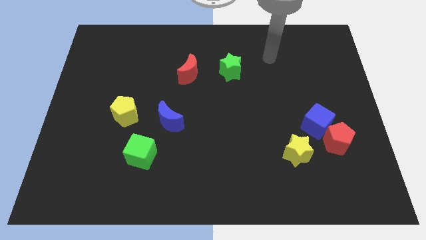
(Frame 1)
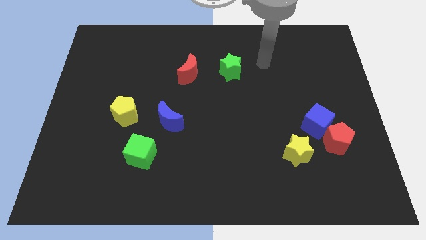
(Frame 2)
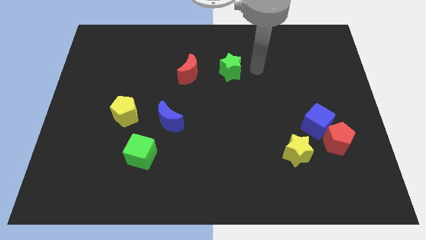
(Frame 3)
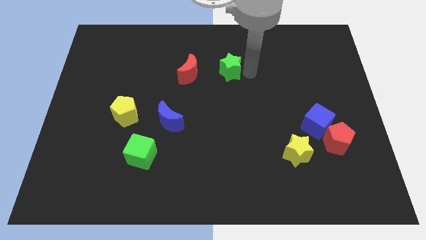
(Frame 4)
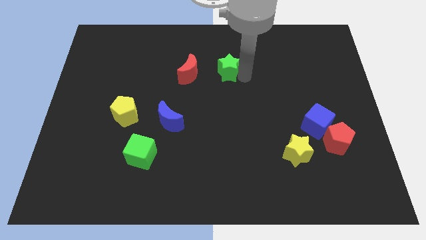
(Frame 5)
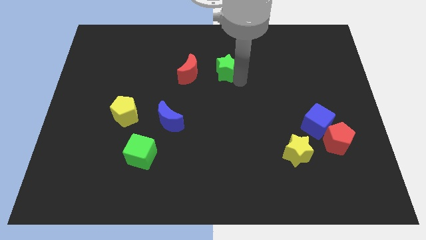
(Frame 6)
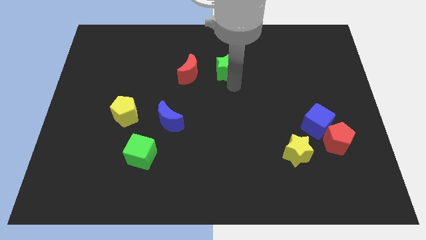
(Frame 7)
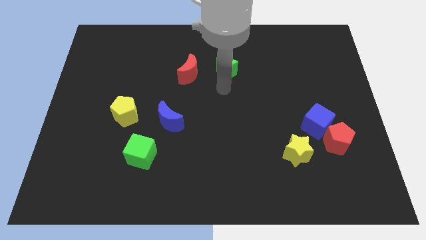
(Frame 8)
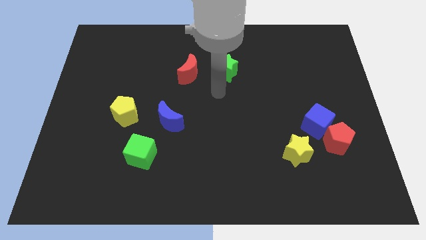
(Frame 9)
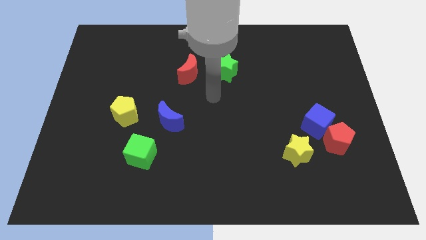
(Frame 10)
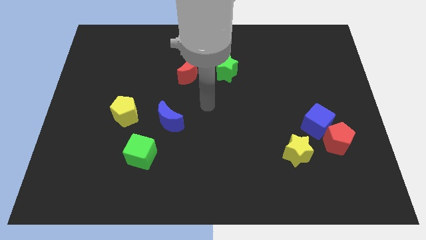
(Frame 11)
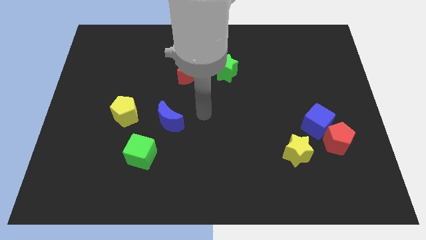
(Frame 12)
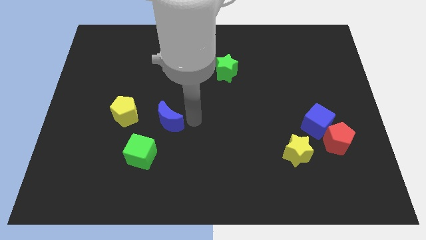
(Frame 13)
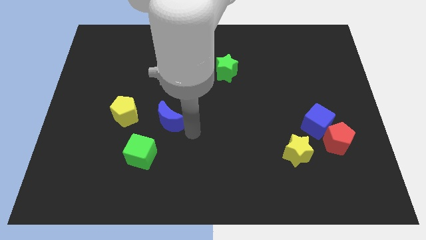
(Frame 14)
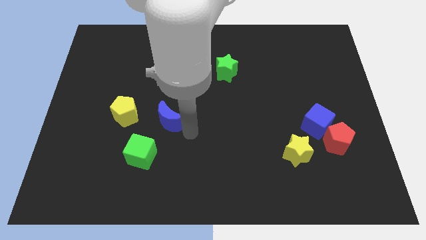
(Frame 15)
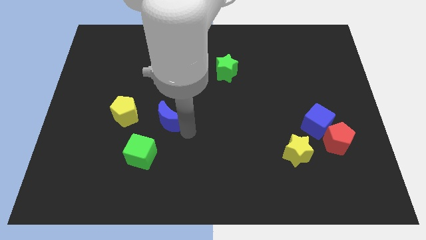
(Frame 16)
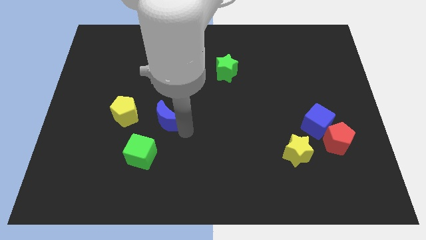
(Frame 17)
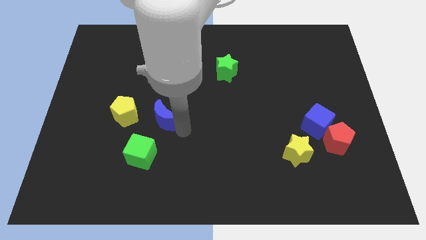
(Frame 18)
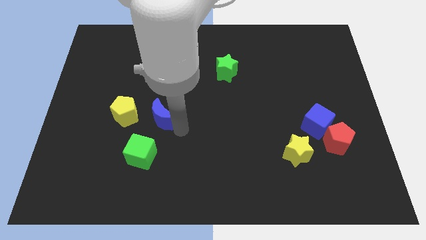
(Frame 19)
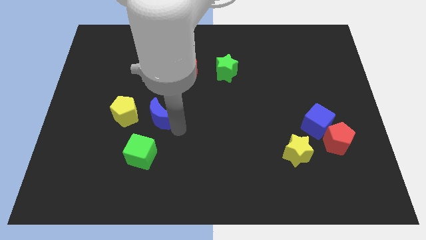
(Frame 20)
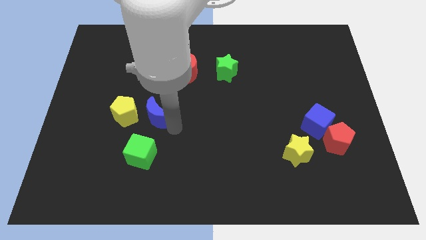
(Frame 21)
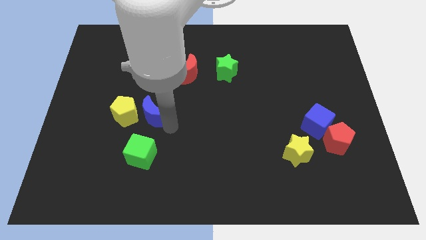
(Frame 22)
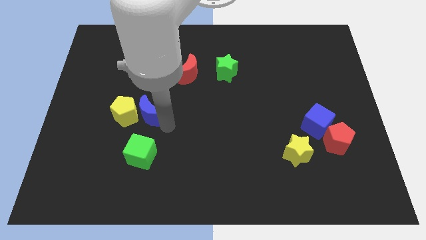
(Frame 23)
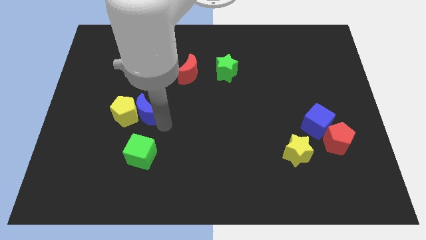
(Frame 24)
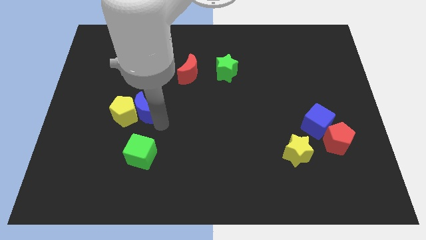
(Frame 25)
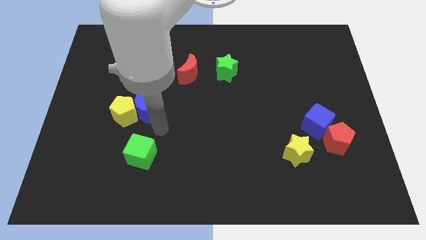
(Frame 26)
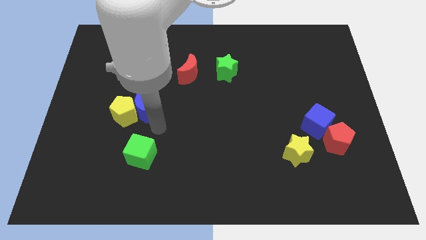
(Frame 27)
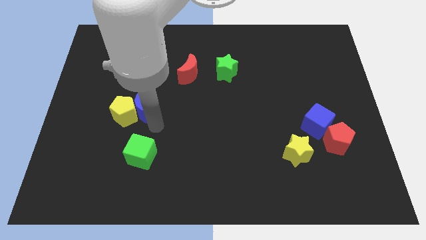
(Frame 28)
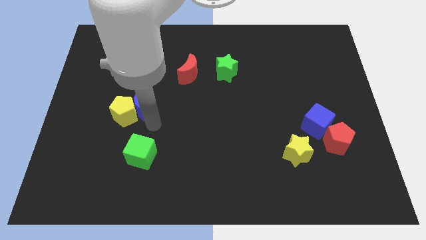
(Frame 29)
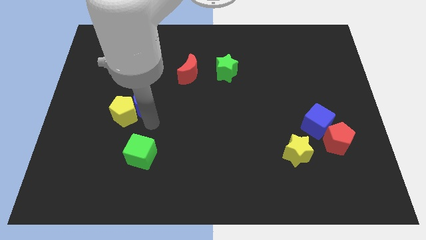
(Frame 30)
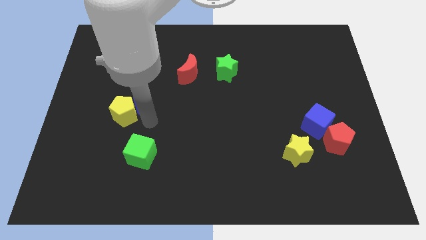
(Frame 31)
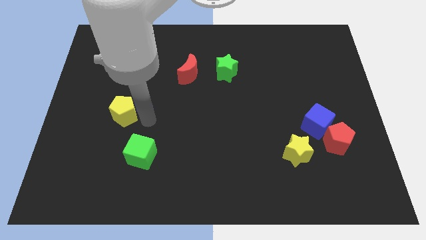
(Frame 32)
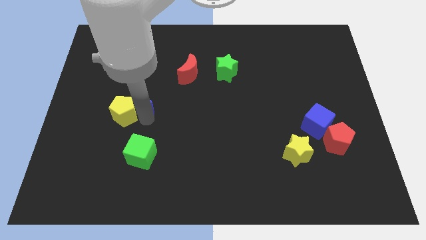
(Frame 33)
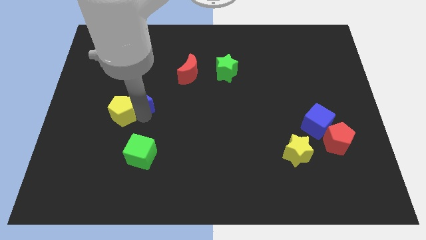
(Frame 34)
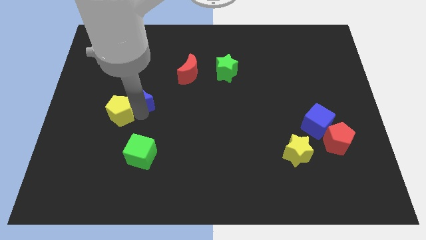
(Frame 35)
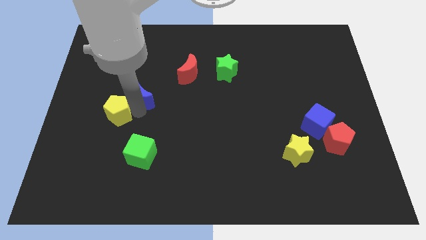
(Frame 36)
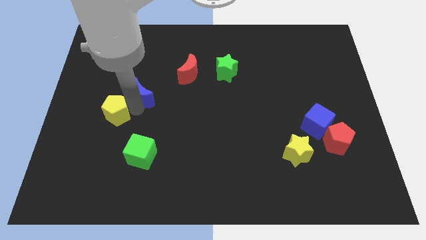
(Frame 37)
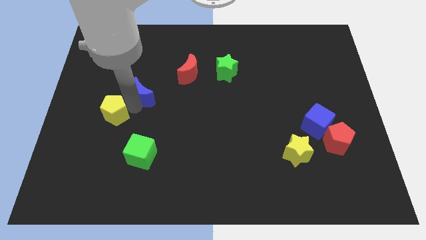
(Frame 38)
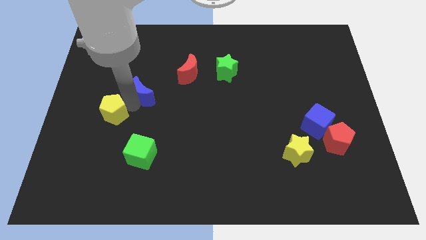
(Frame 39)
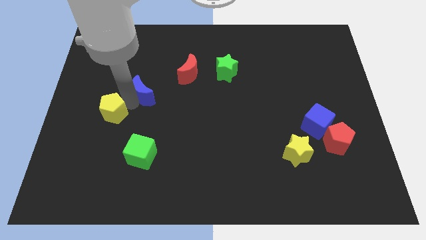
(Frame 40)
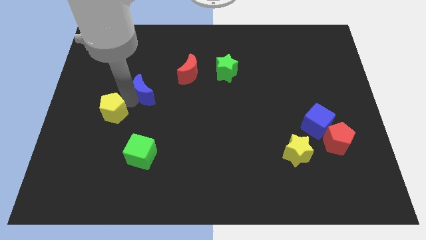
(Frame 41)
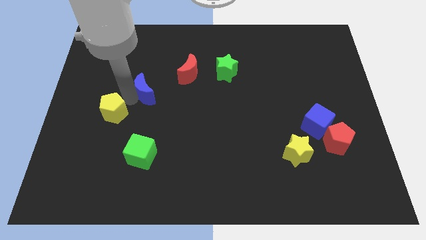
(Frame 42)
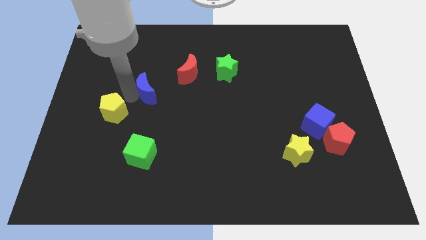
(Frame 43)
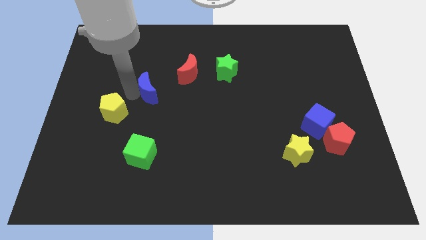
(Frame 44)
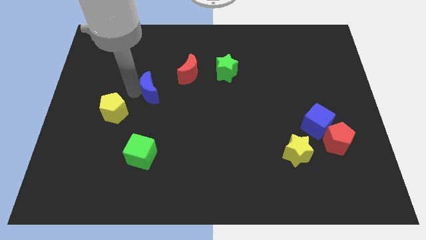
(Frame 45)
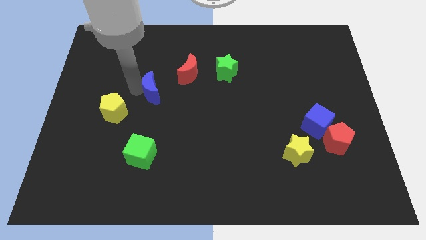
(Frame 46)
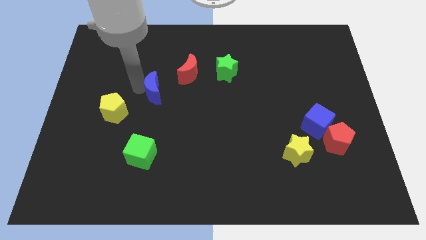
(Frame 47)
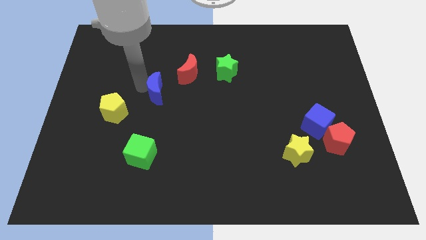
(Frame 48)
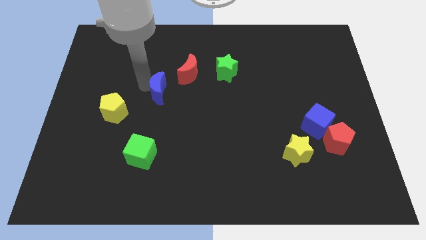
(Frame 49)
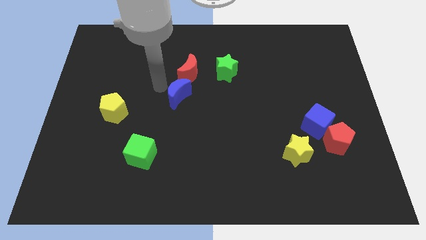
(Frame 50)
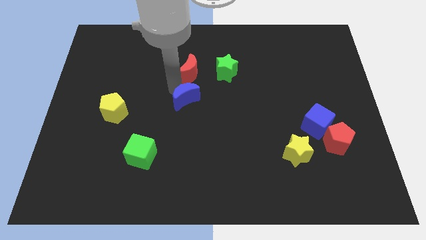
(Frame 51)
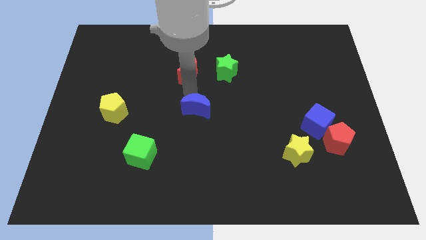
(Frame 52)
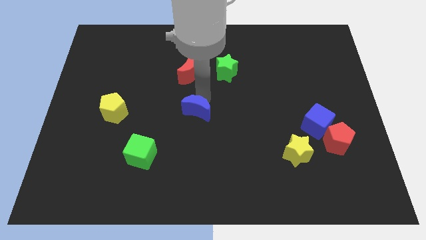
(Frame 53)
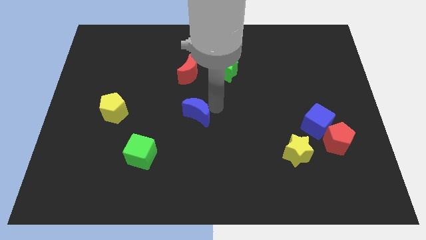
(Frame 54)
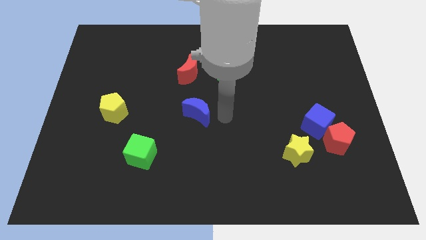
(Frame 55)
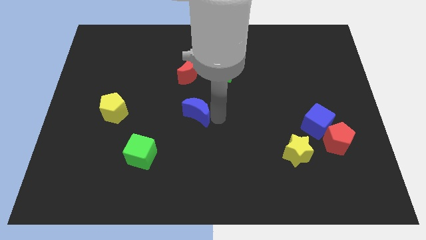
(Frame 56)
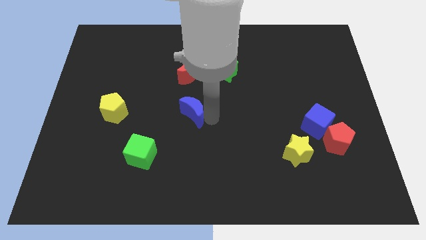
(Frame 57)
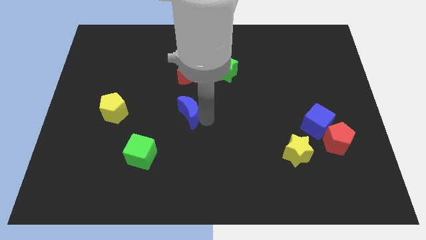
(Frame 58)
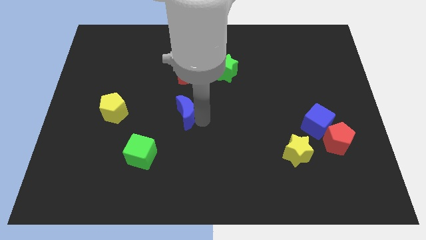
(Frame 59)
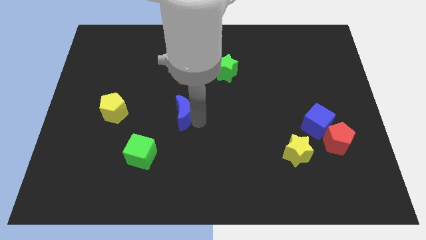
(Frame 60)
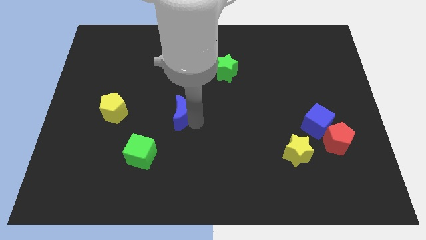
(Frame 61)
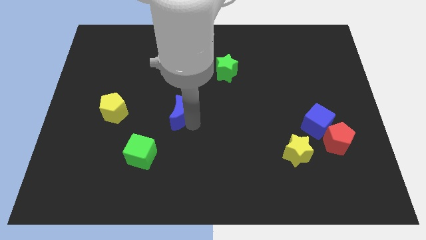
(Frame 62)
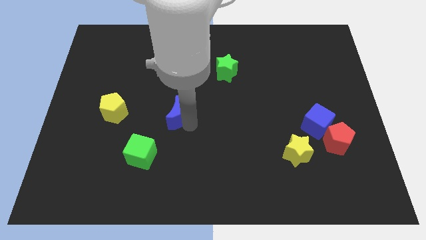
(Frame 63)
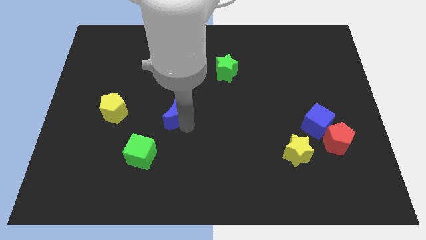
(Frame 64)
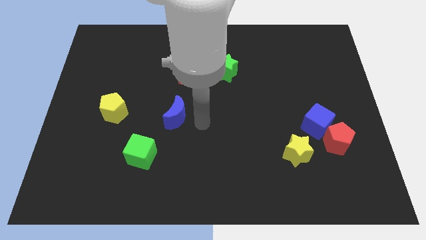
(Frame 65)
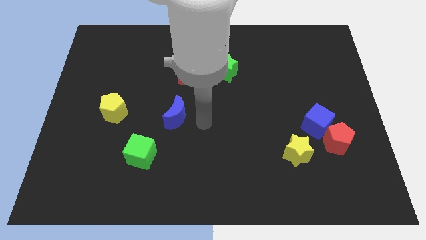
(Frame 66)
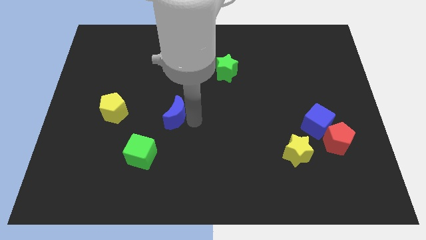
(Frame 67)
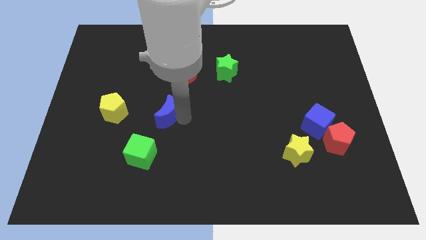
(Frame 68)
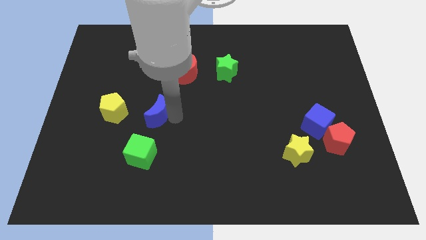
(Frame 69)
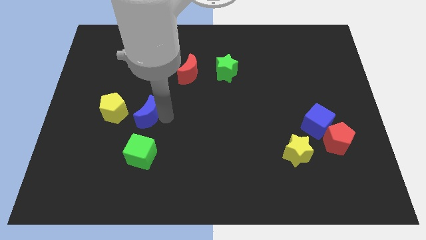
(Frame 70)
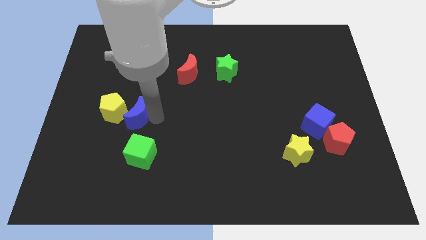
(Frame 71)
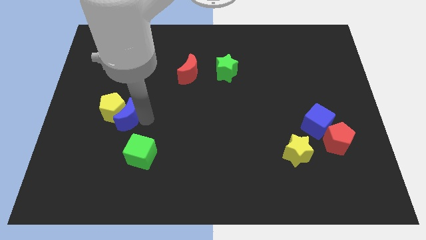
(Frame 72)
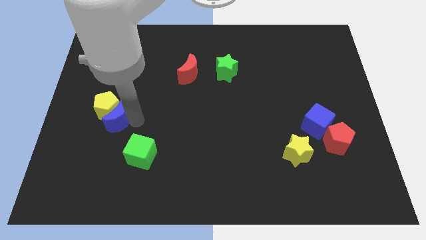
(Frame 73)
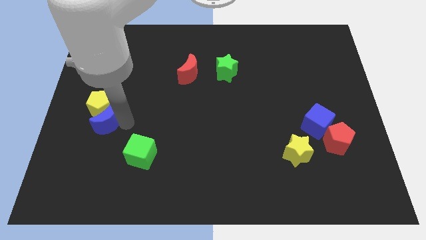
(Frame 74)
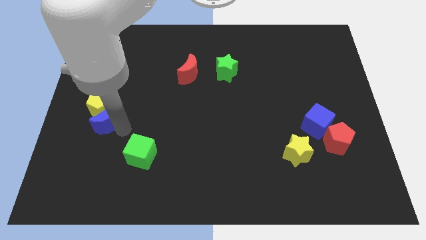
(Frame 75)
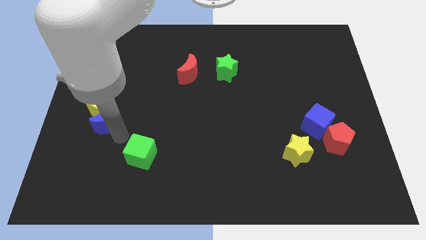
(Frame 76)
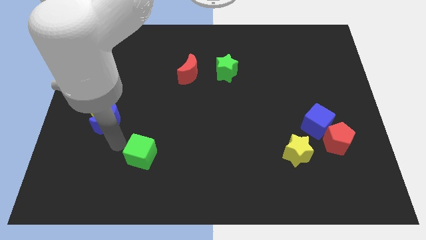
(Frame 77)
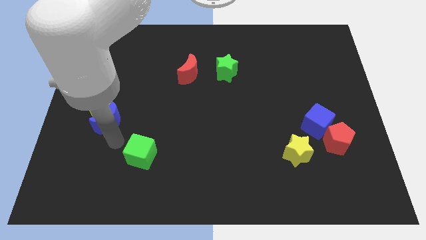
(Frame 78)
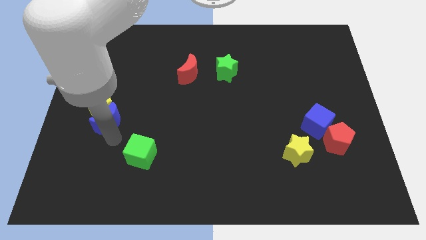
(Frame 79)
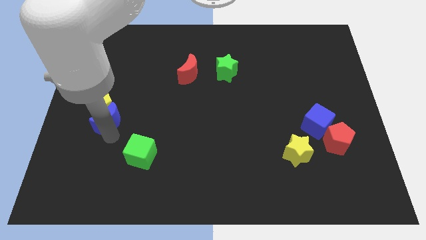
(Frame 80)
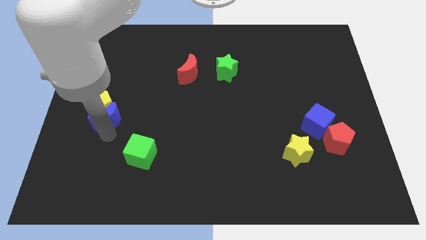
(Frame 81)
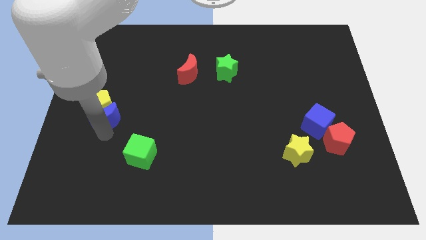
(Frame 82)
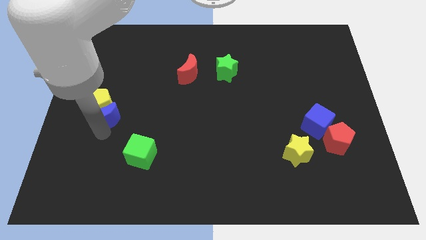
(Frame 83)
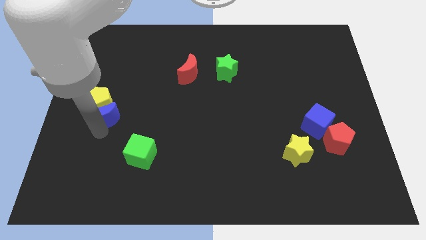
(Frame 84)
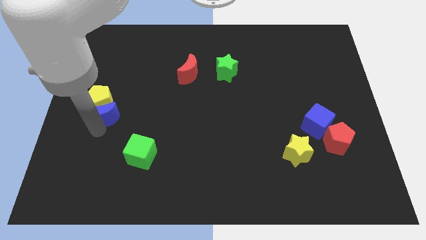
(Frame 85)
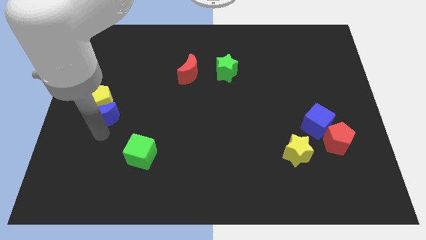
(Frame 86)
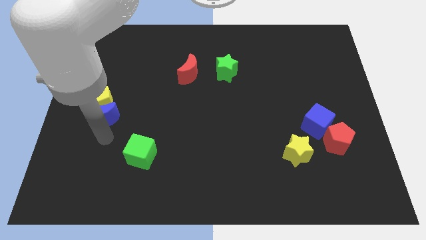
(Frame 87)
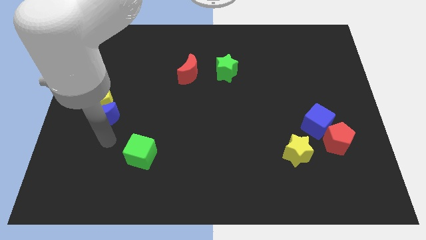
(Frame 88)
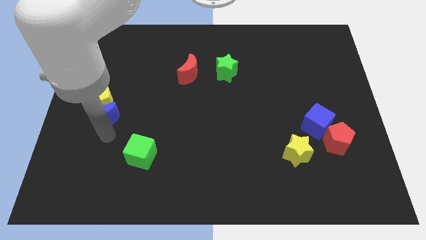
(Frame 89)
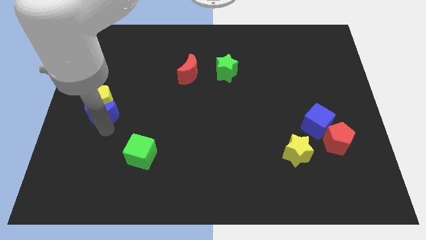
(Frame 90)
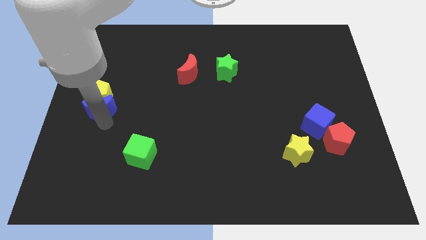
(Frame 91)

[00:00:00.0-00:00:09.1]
move the blue moon to the left side
